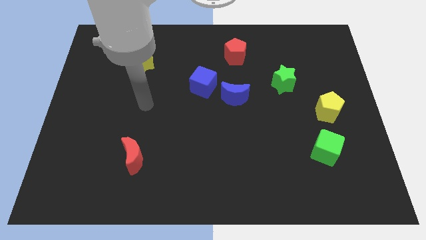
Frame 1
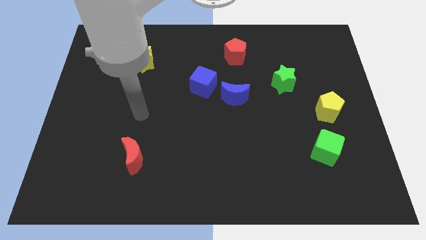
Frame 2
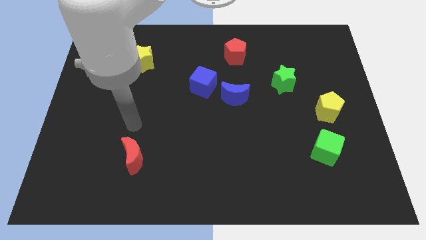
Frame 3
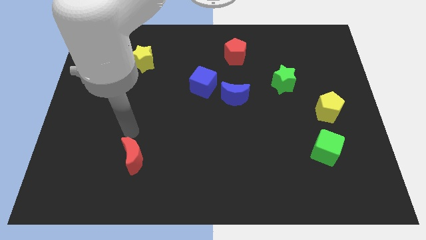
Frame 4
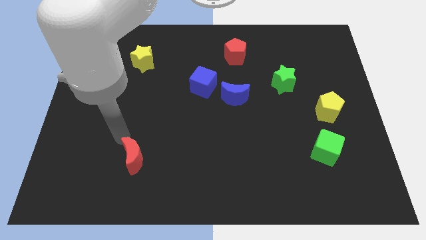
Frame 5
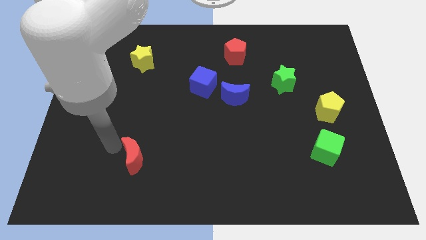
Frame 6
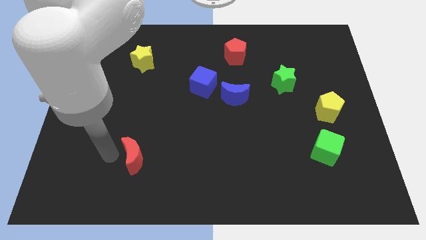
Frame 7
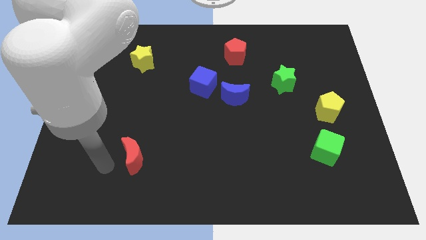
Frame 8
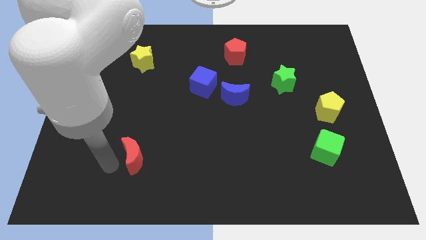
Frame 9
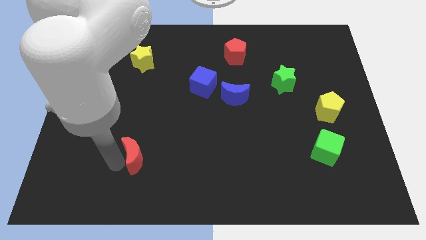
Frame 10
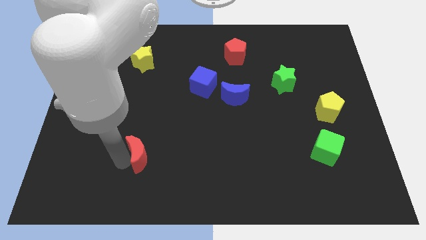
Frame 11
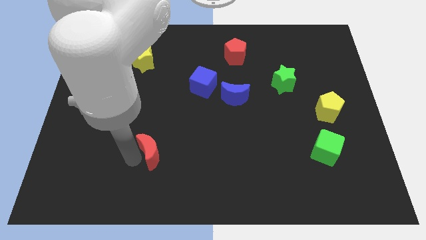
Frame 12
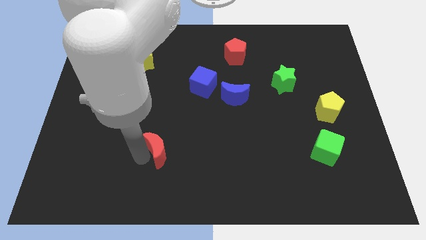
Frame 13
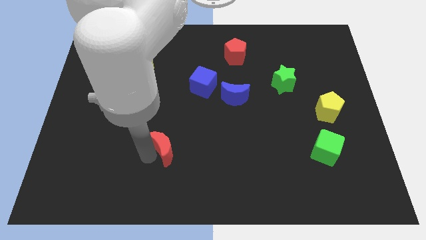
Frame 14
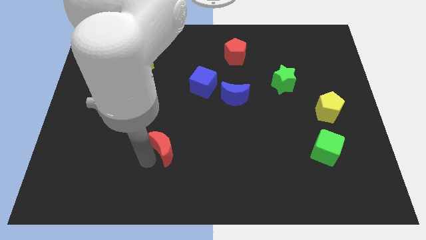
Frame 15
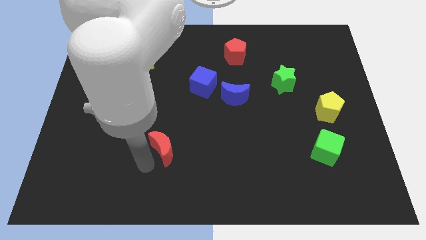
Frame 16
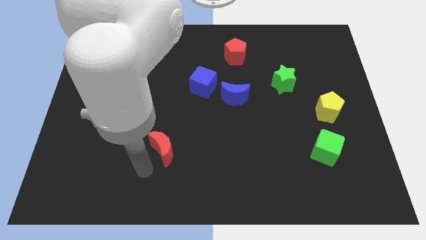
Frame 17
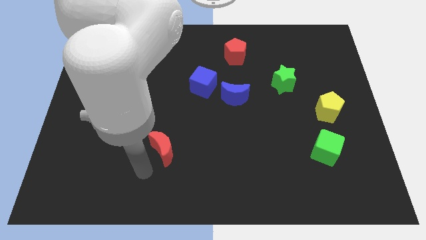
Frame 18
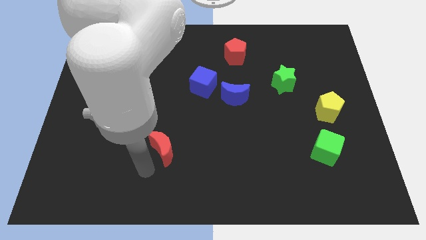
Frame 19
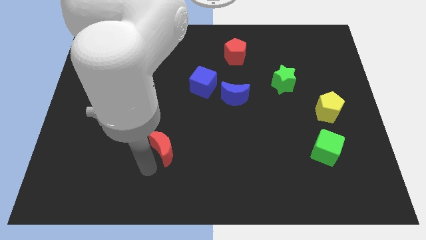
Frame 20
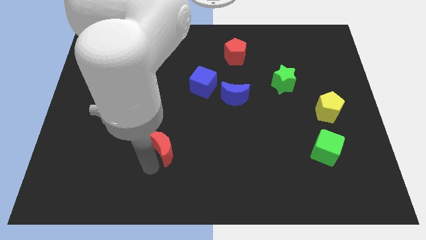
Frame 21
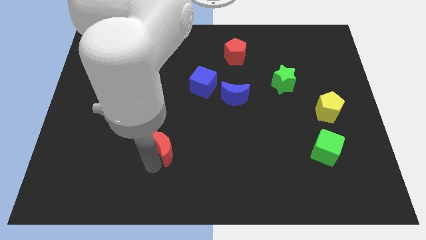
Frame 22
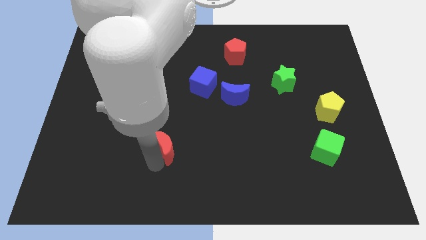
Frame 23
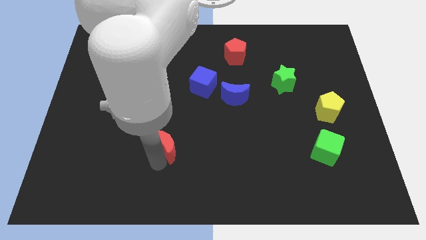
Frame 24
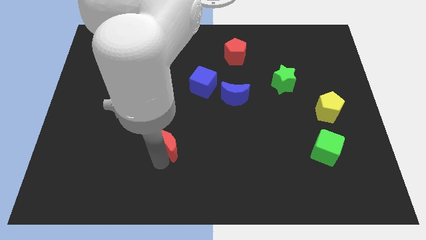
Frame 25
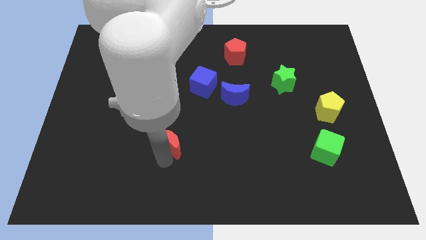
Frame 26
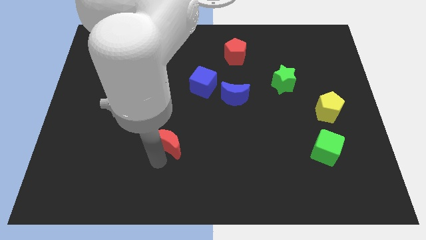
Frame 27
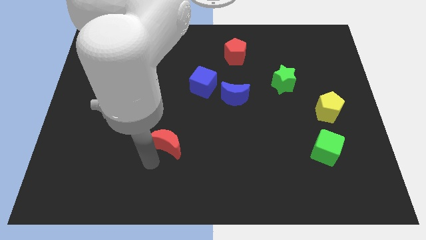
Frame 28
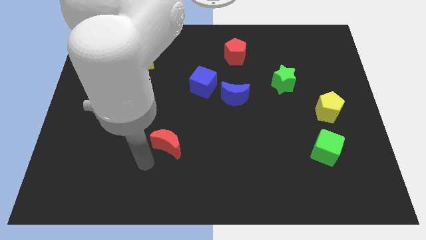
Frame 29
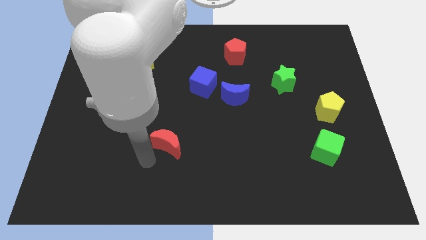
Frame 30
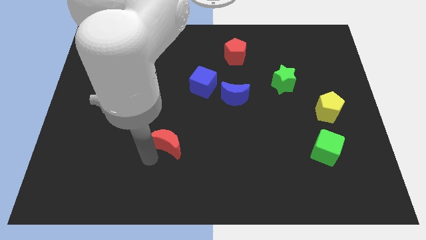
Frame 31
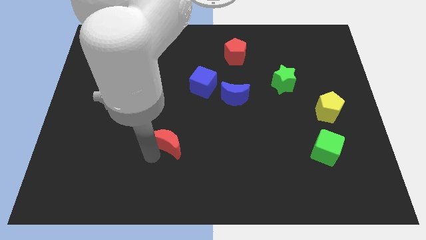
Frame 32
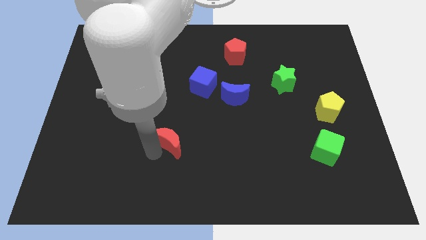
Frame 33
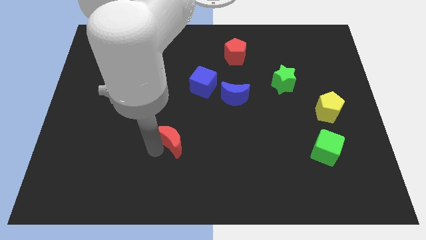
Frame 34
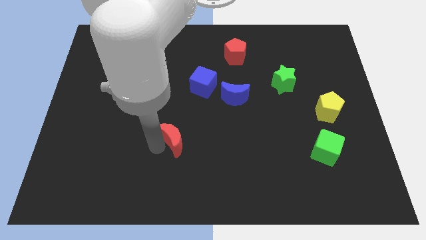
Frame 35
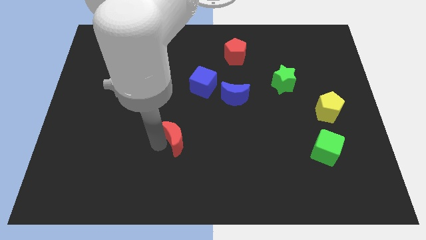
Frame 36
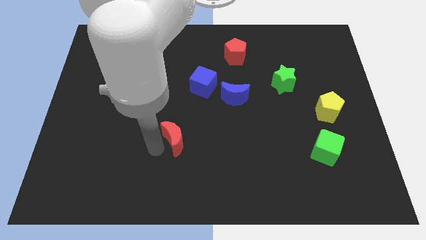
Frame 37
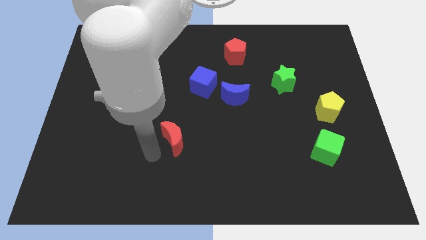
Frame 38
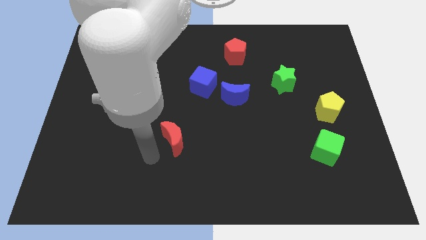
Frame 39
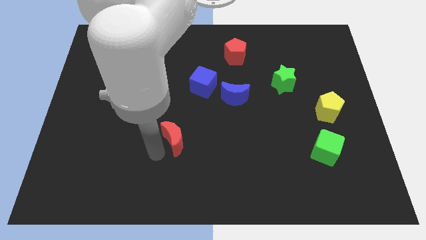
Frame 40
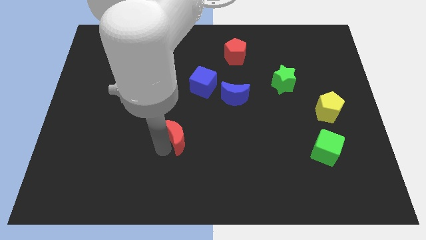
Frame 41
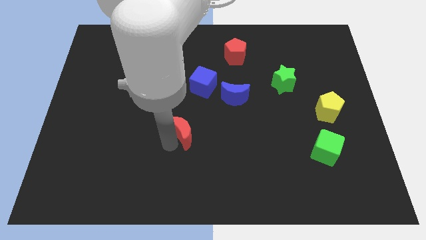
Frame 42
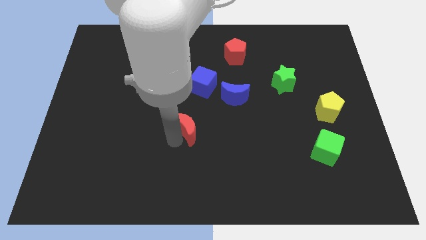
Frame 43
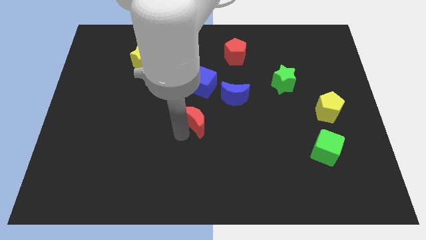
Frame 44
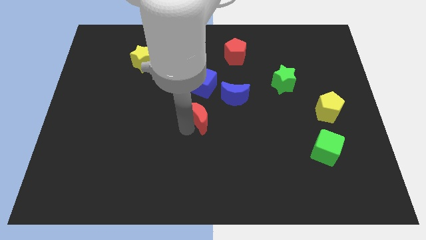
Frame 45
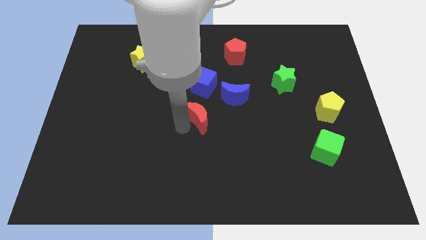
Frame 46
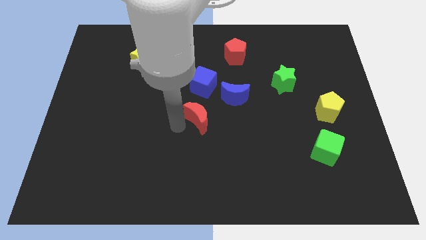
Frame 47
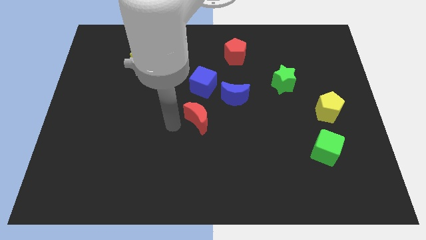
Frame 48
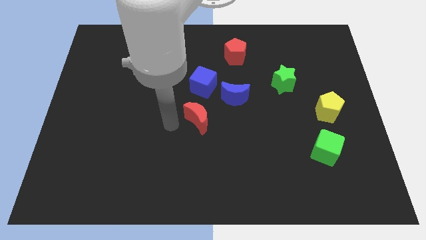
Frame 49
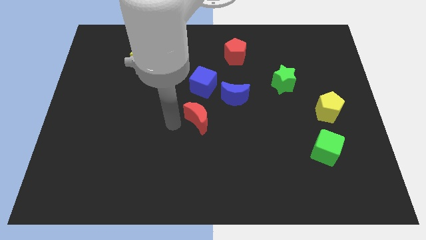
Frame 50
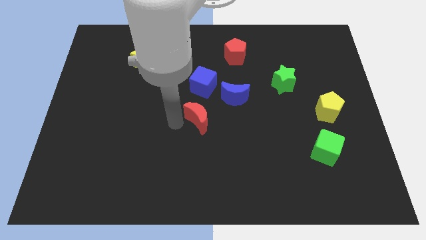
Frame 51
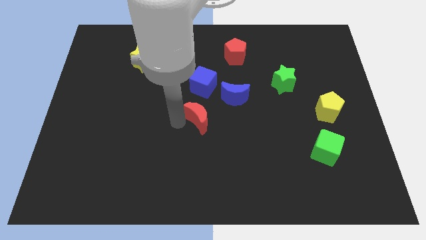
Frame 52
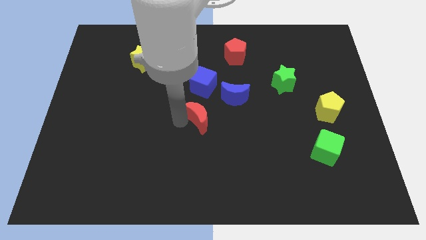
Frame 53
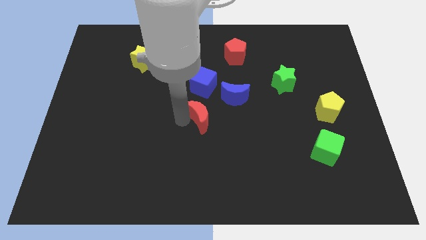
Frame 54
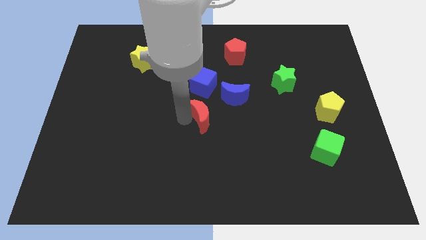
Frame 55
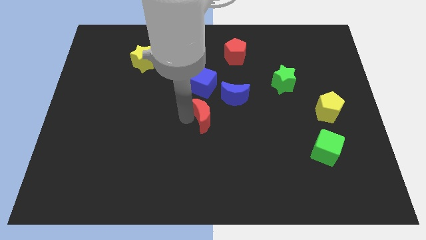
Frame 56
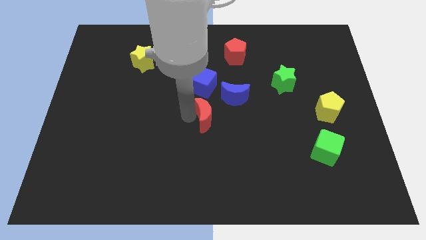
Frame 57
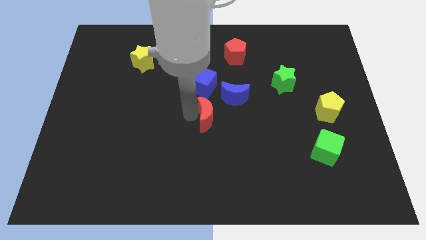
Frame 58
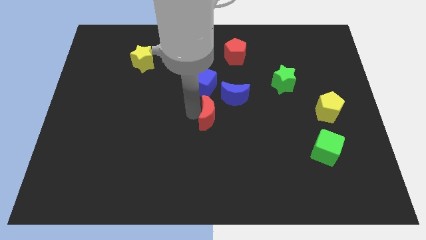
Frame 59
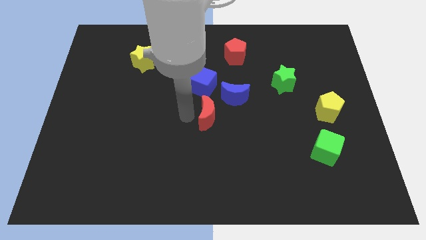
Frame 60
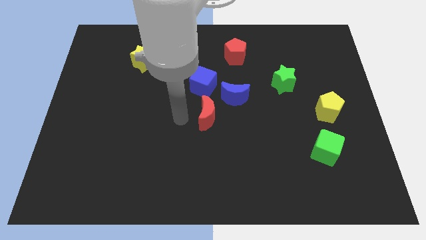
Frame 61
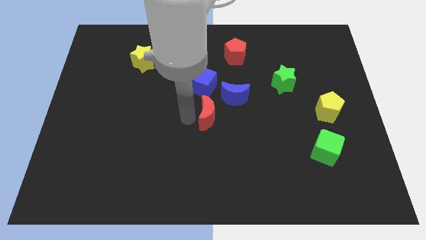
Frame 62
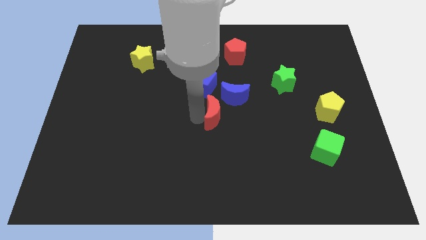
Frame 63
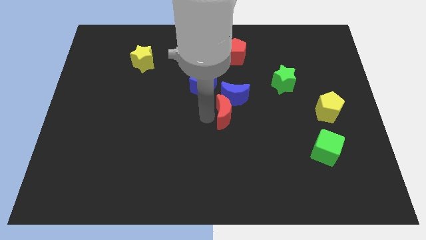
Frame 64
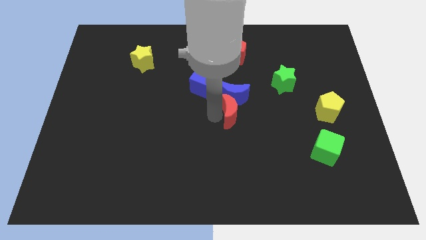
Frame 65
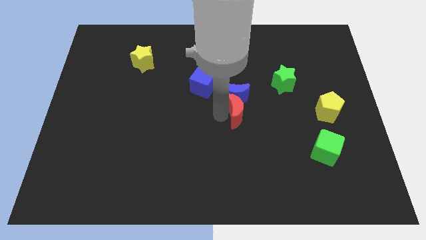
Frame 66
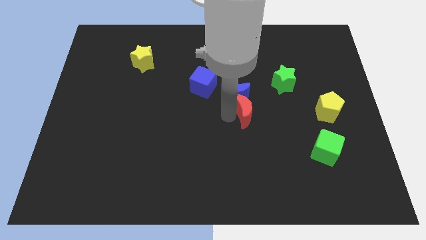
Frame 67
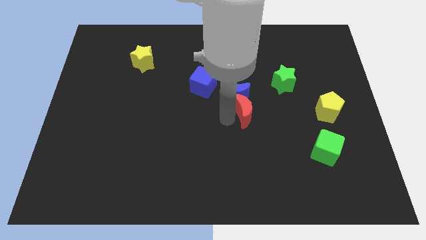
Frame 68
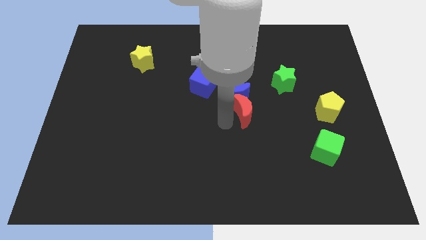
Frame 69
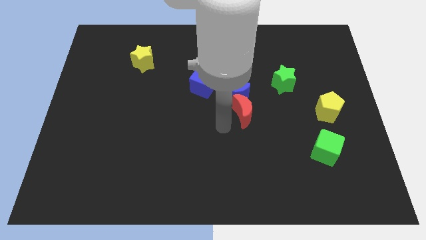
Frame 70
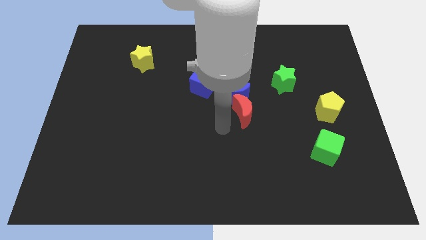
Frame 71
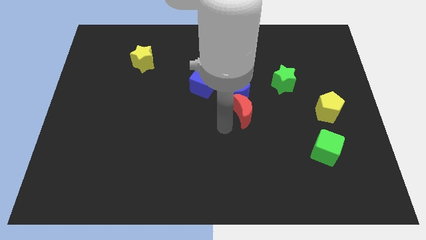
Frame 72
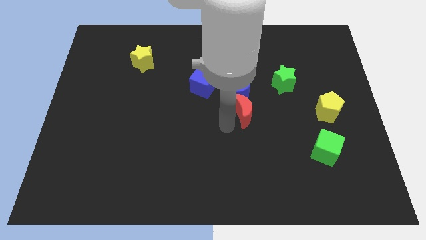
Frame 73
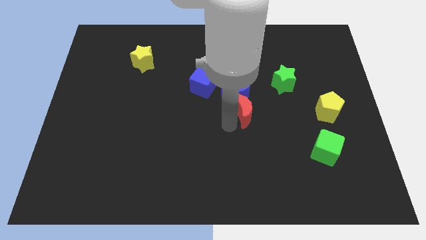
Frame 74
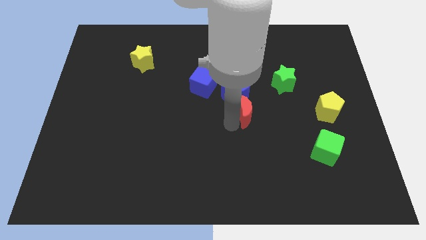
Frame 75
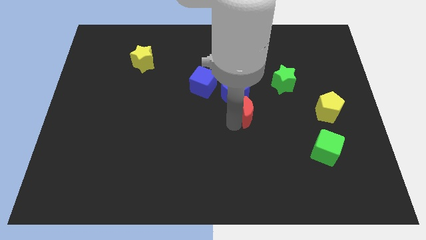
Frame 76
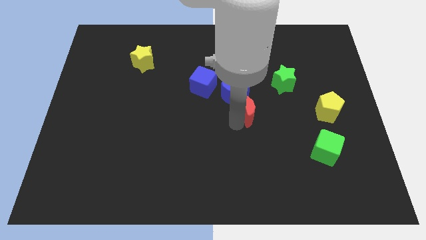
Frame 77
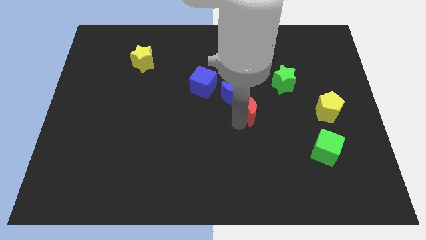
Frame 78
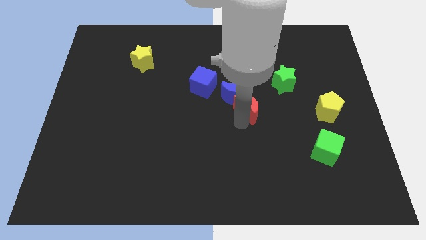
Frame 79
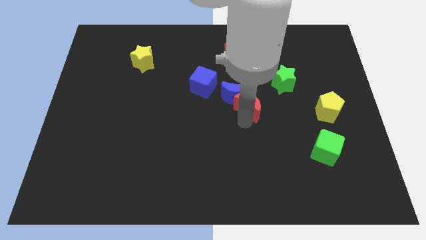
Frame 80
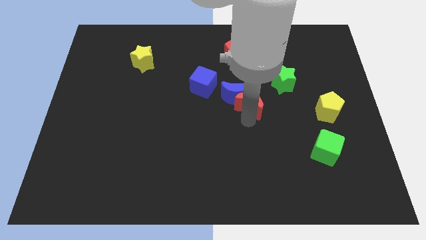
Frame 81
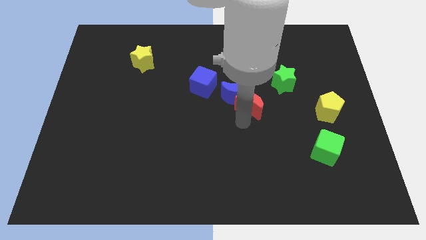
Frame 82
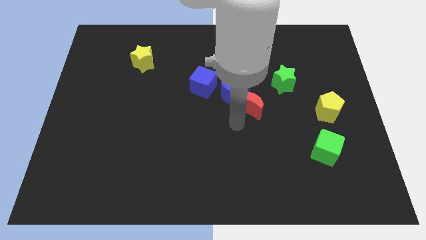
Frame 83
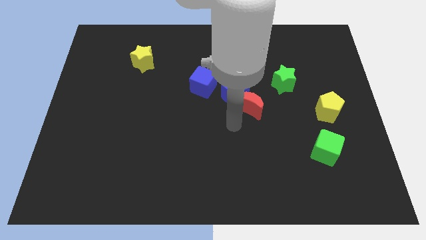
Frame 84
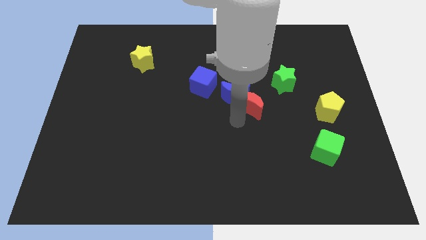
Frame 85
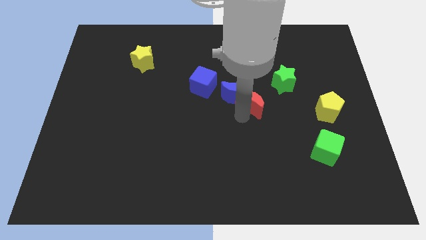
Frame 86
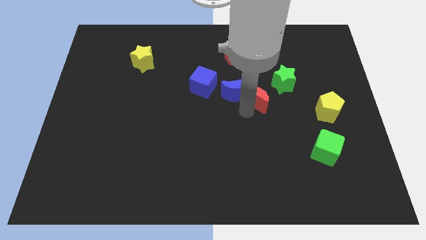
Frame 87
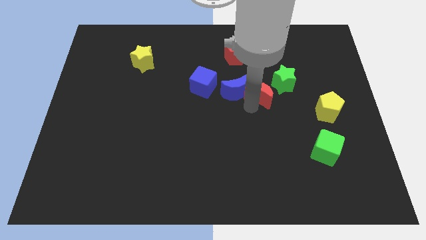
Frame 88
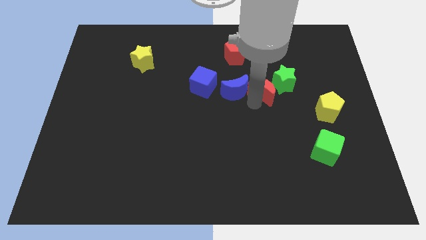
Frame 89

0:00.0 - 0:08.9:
move the red moon to the green star
